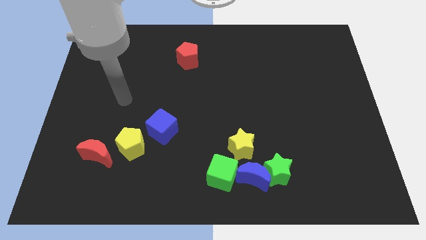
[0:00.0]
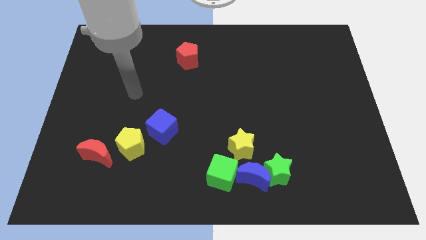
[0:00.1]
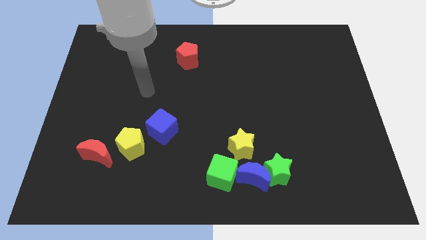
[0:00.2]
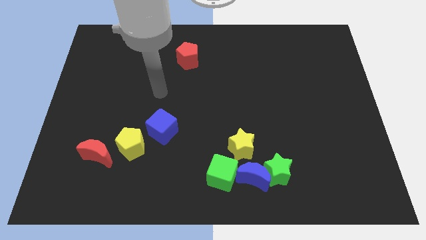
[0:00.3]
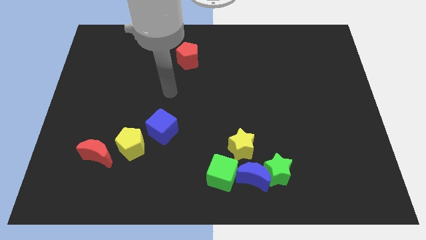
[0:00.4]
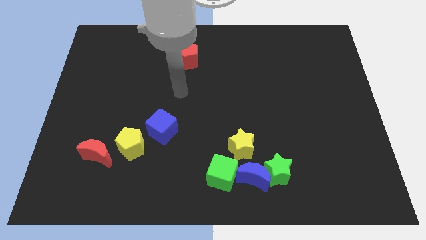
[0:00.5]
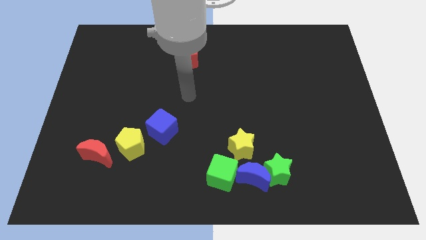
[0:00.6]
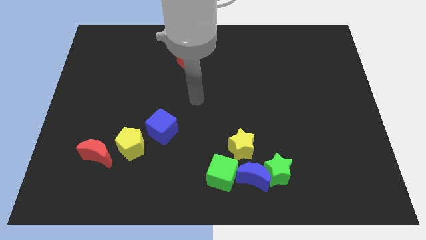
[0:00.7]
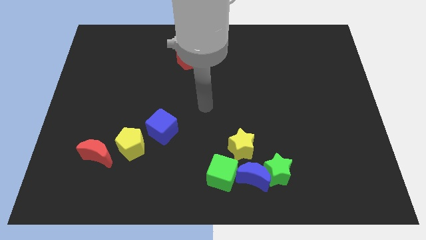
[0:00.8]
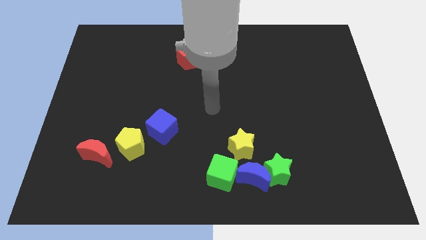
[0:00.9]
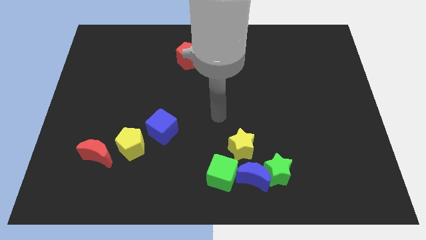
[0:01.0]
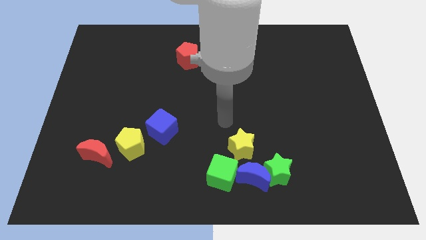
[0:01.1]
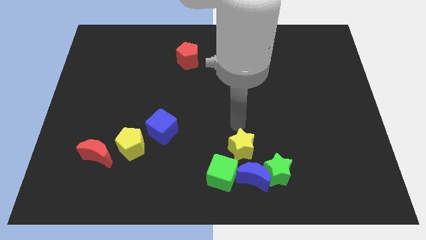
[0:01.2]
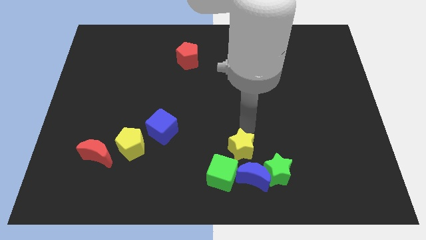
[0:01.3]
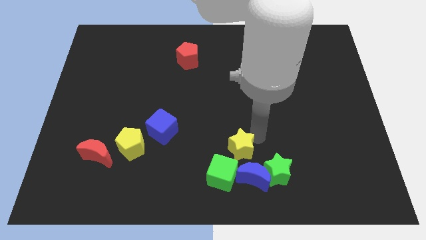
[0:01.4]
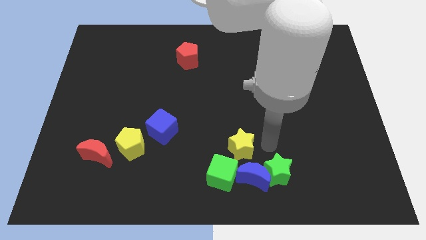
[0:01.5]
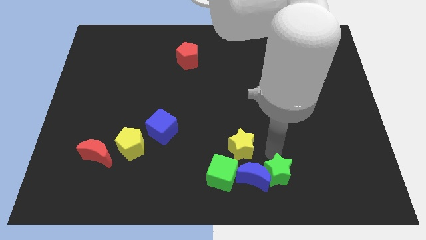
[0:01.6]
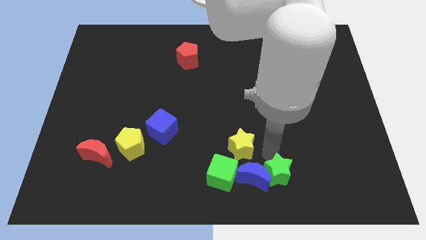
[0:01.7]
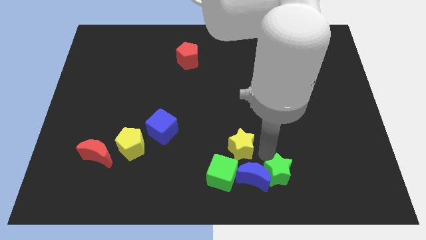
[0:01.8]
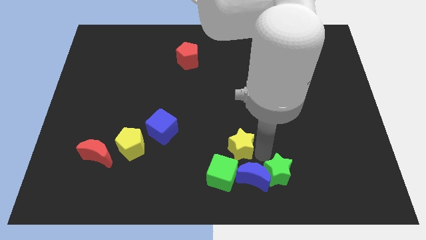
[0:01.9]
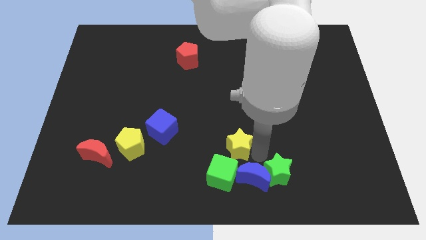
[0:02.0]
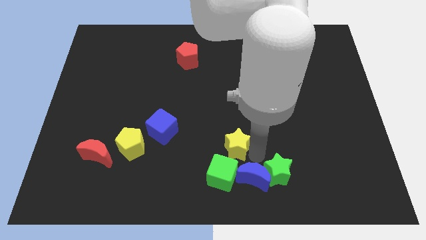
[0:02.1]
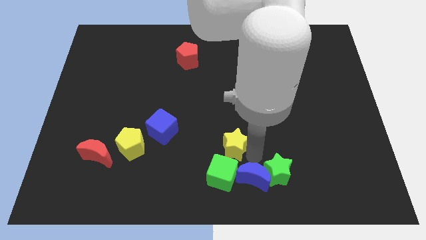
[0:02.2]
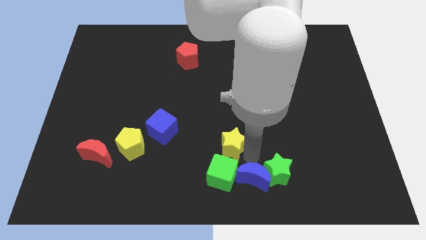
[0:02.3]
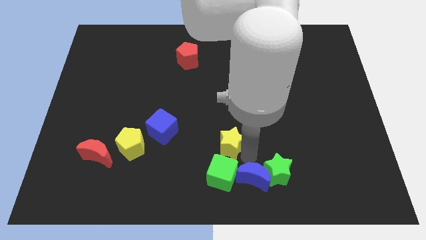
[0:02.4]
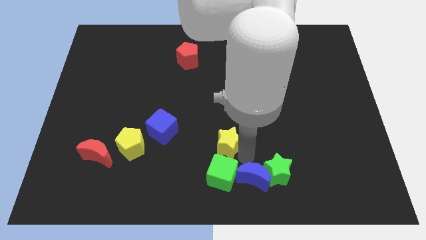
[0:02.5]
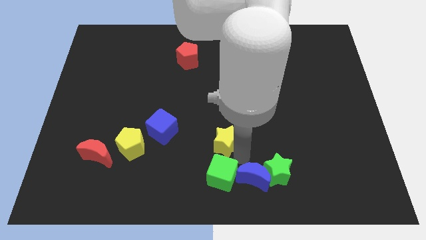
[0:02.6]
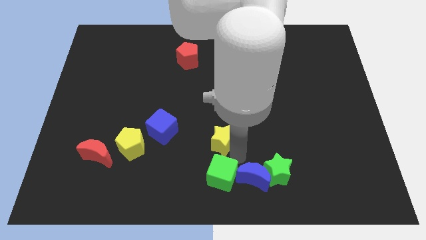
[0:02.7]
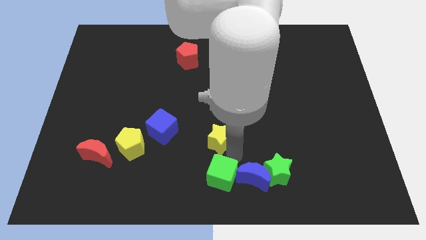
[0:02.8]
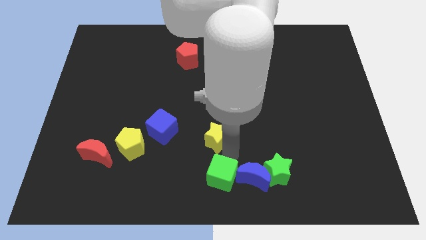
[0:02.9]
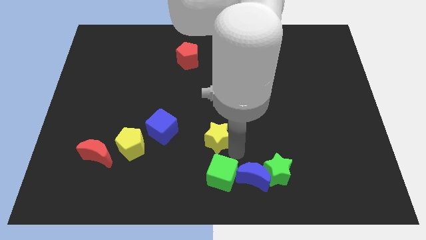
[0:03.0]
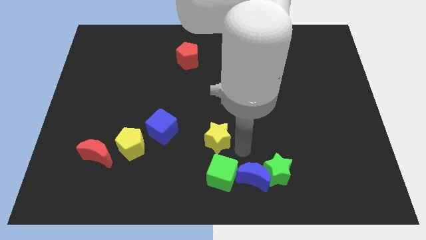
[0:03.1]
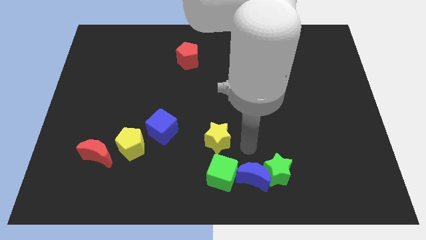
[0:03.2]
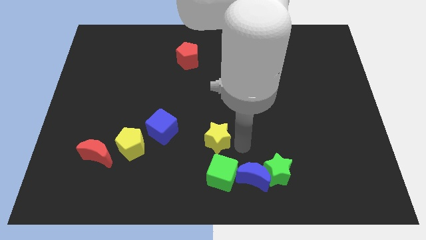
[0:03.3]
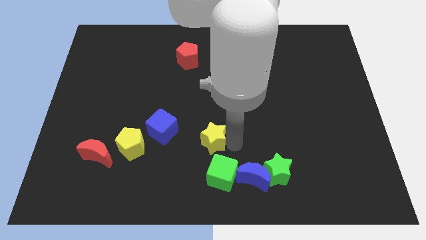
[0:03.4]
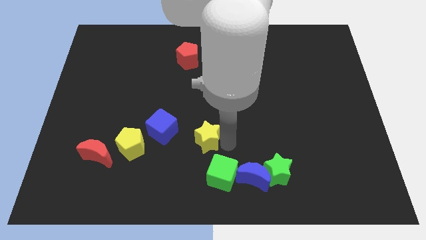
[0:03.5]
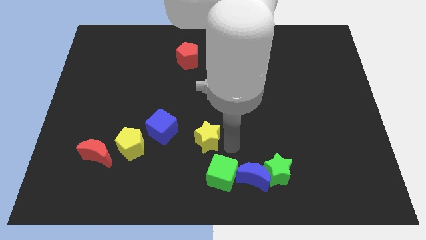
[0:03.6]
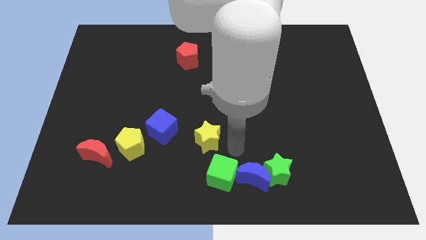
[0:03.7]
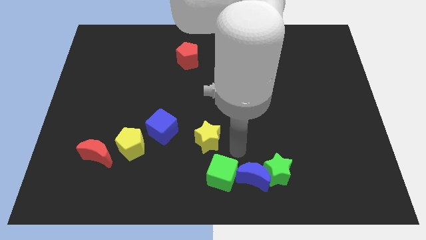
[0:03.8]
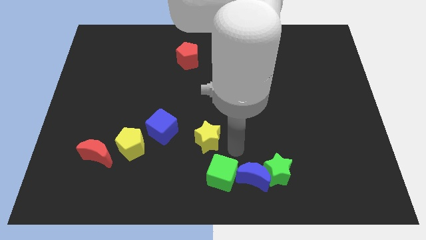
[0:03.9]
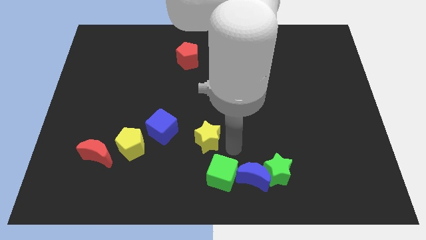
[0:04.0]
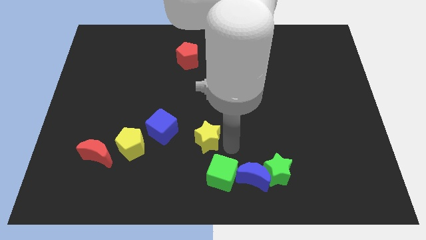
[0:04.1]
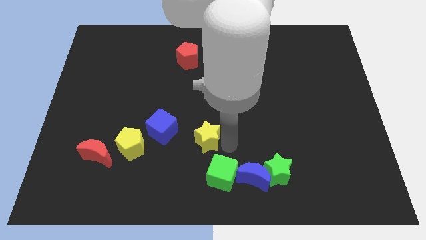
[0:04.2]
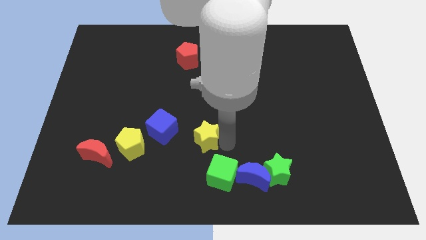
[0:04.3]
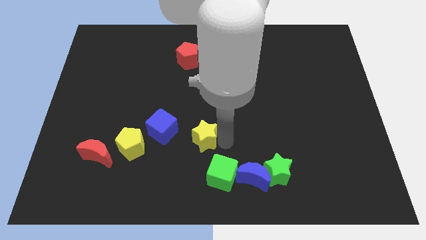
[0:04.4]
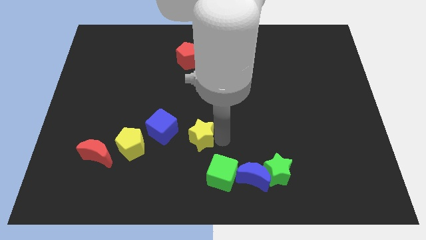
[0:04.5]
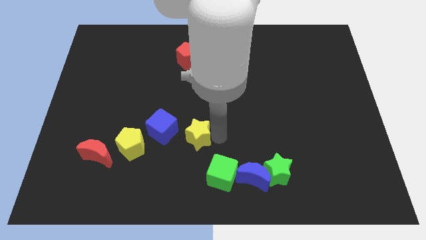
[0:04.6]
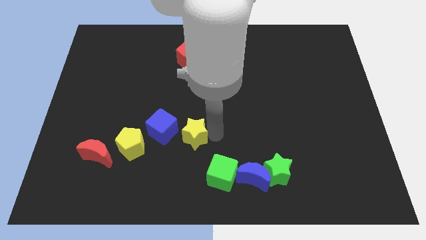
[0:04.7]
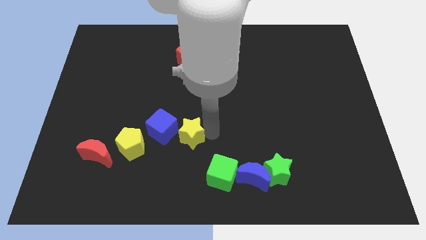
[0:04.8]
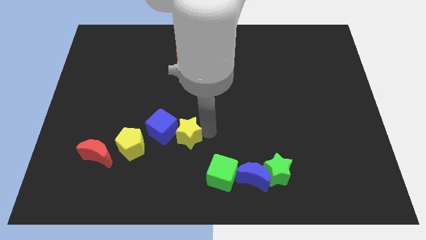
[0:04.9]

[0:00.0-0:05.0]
slide the yellow star towards the blue cube

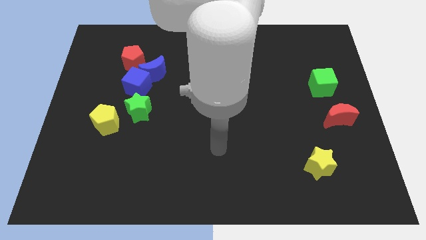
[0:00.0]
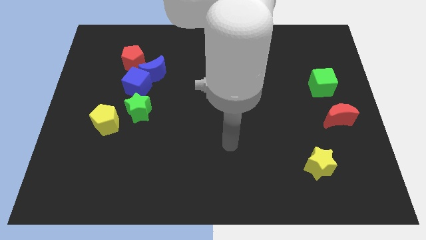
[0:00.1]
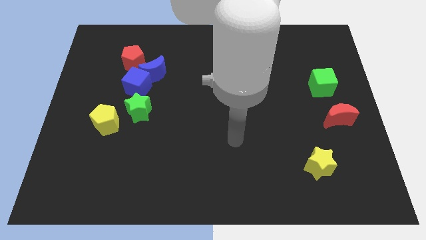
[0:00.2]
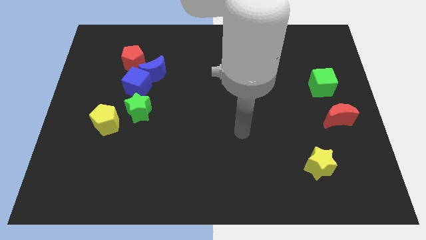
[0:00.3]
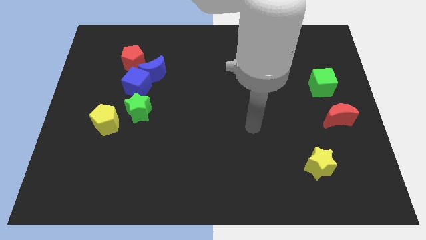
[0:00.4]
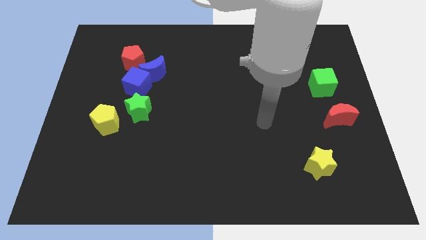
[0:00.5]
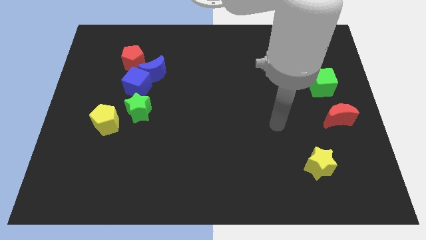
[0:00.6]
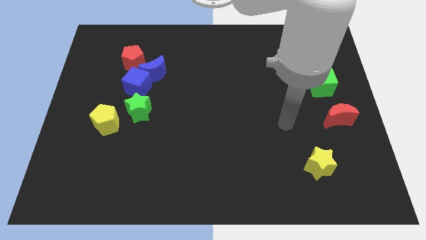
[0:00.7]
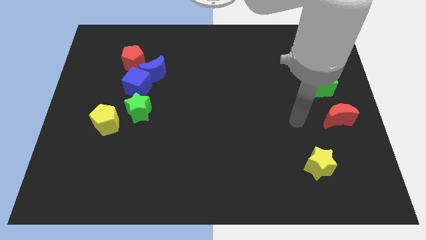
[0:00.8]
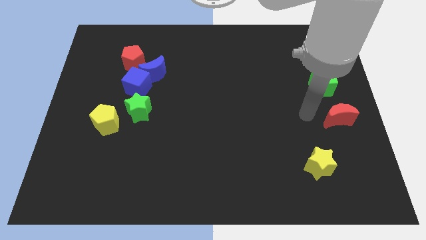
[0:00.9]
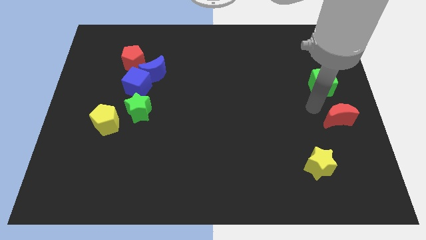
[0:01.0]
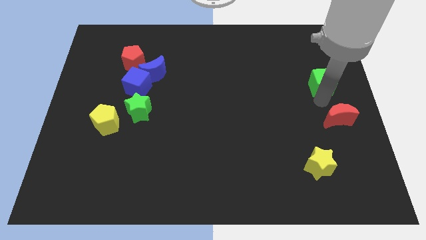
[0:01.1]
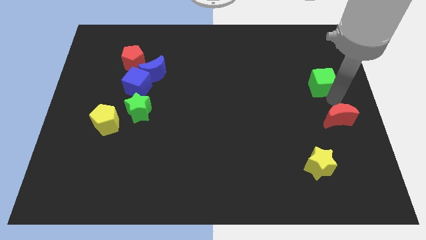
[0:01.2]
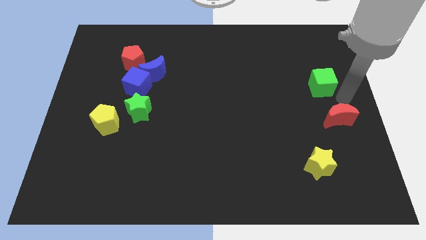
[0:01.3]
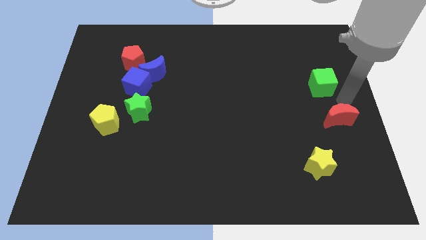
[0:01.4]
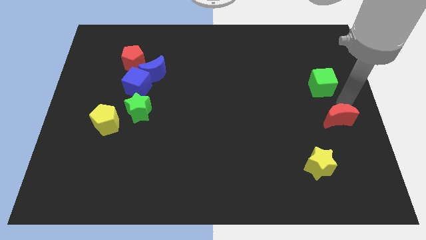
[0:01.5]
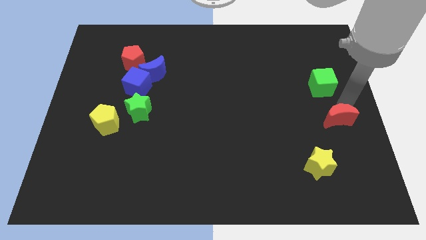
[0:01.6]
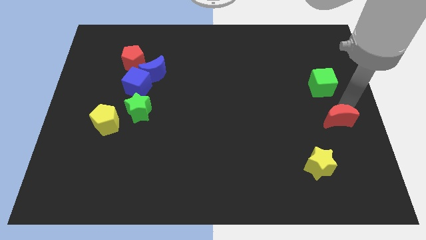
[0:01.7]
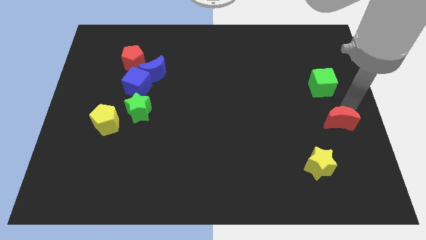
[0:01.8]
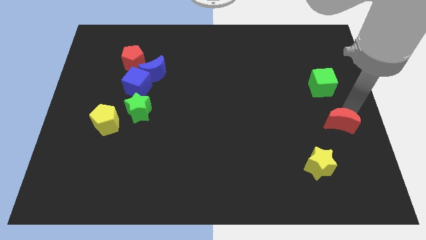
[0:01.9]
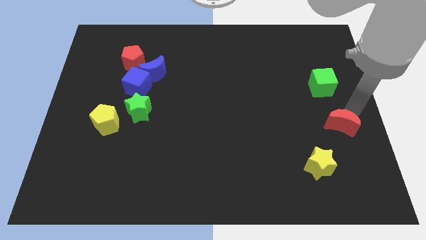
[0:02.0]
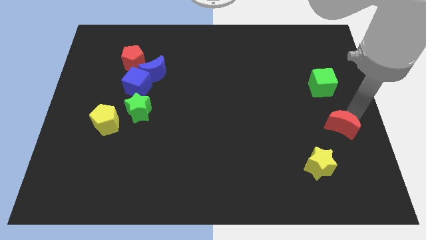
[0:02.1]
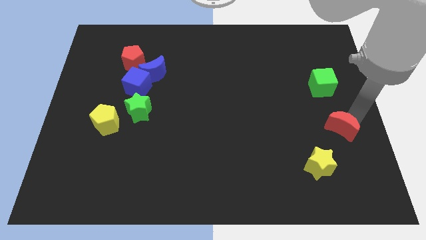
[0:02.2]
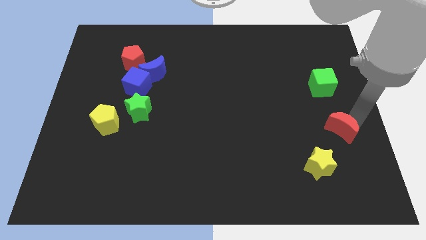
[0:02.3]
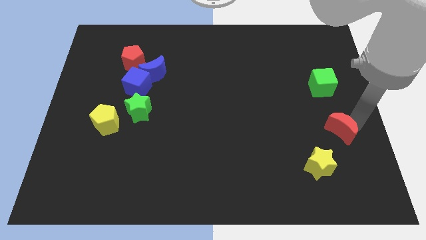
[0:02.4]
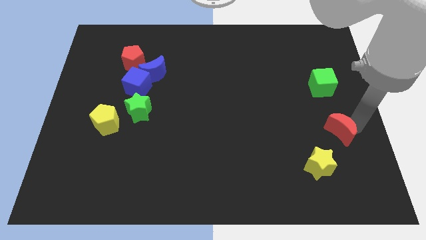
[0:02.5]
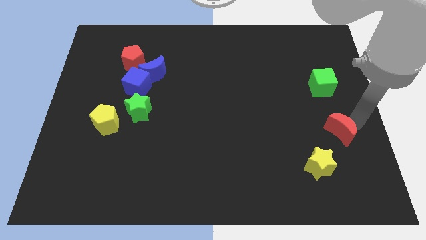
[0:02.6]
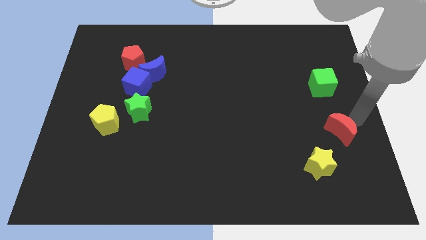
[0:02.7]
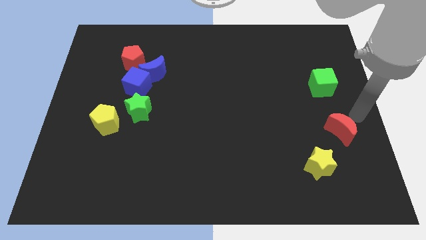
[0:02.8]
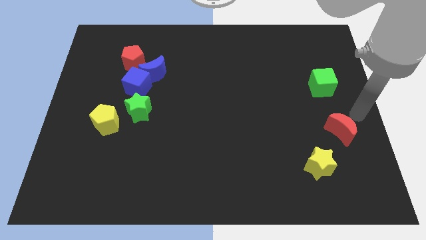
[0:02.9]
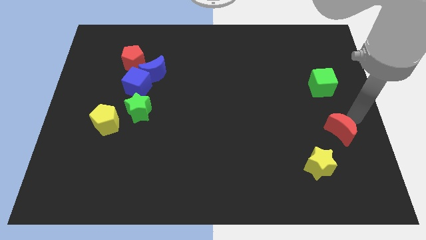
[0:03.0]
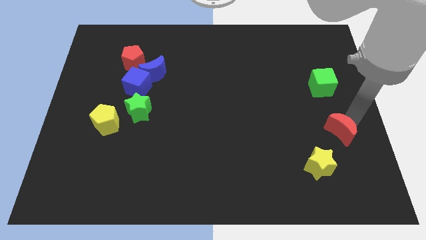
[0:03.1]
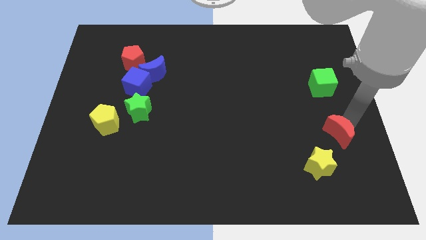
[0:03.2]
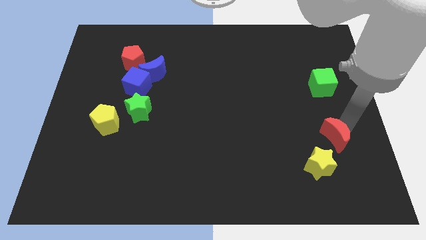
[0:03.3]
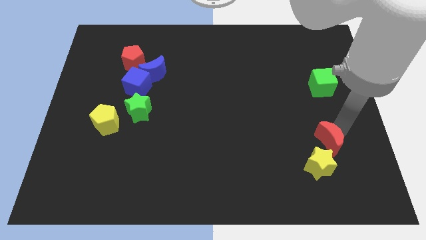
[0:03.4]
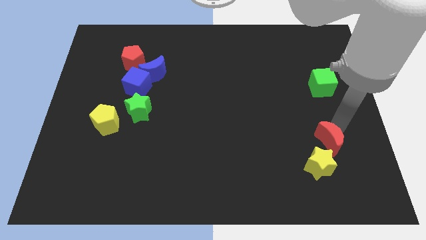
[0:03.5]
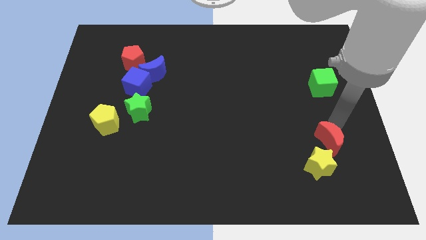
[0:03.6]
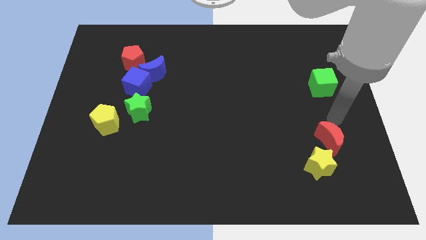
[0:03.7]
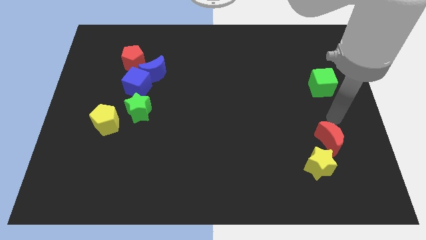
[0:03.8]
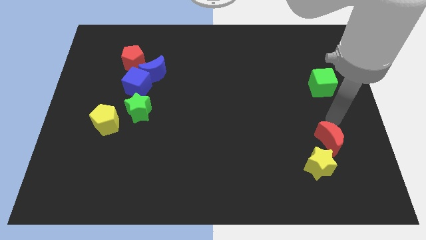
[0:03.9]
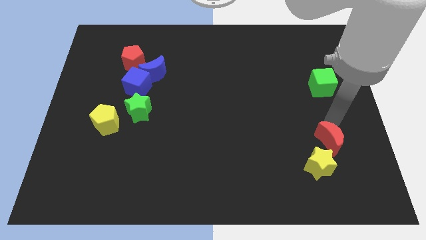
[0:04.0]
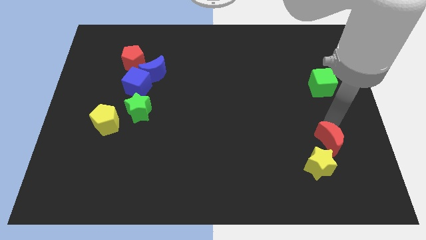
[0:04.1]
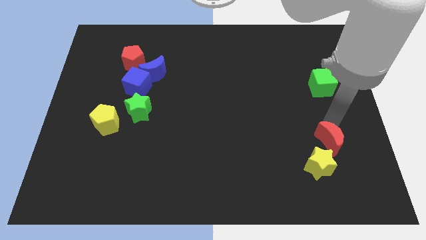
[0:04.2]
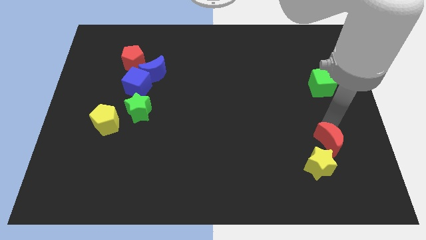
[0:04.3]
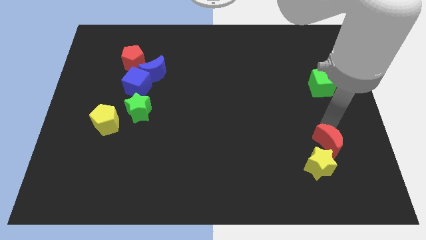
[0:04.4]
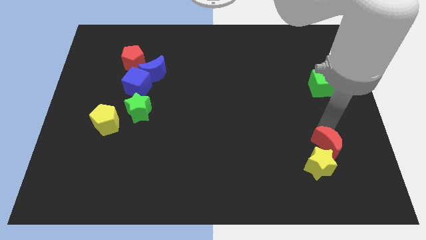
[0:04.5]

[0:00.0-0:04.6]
move the red moon to the yellow star
